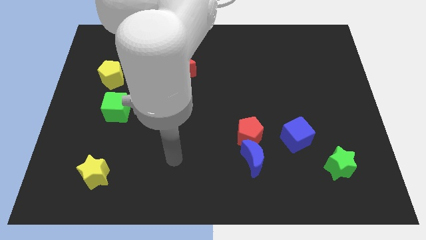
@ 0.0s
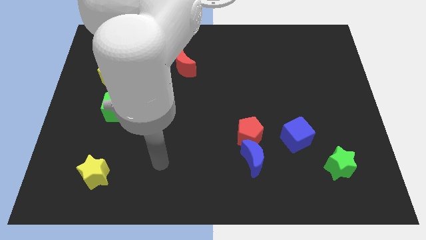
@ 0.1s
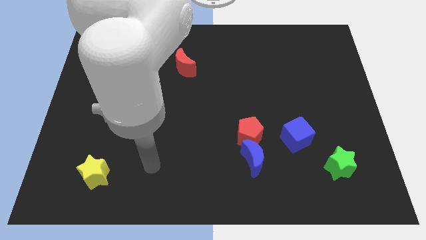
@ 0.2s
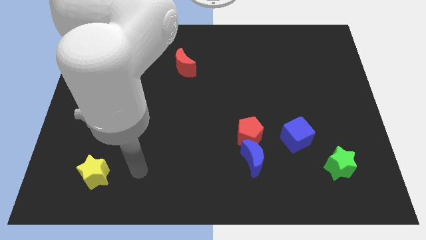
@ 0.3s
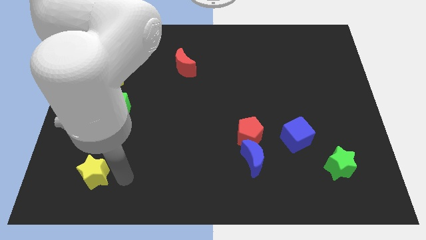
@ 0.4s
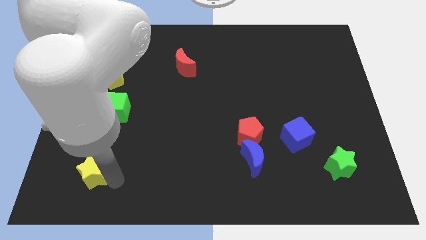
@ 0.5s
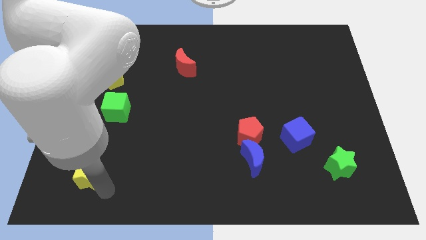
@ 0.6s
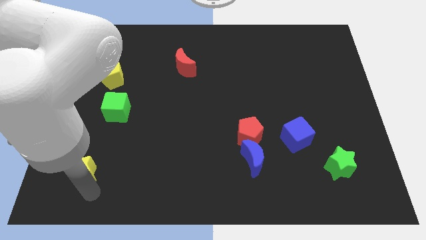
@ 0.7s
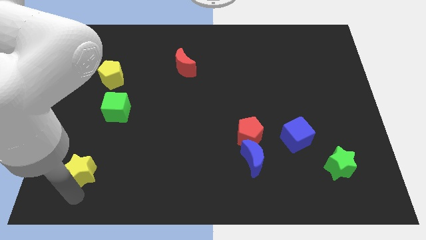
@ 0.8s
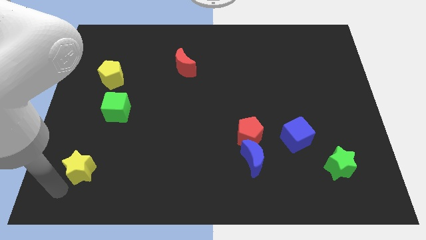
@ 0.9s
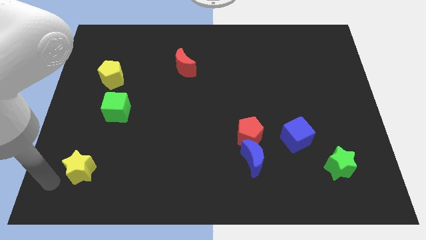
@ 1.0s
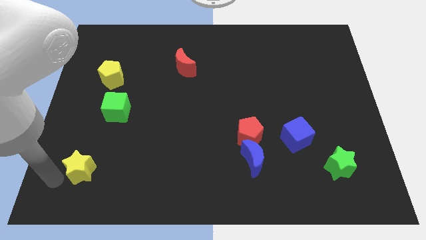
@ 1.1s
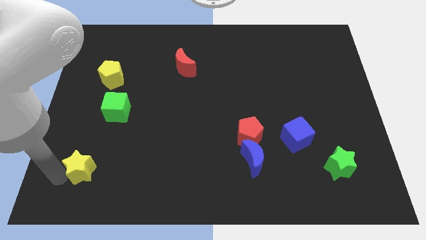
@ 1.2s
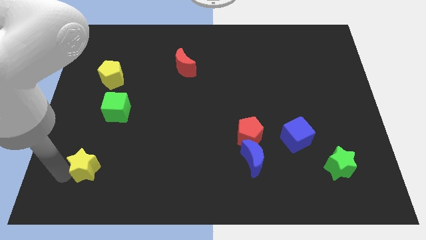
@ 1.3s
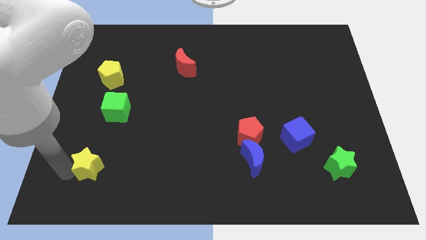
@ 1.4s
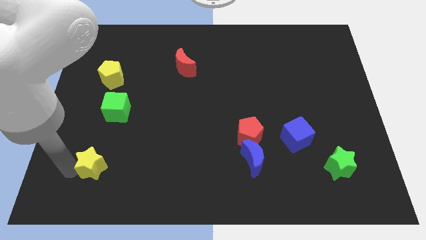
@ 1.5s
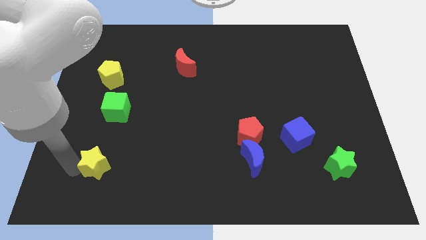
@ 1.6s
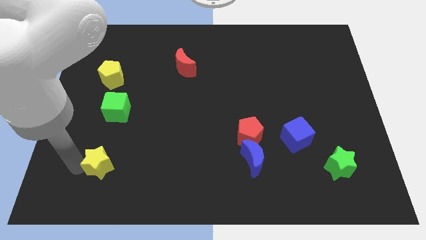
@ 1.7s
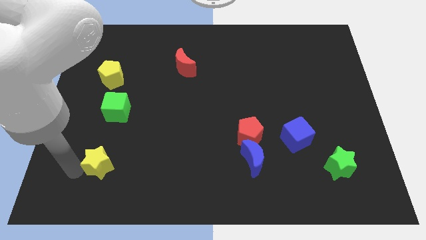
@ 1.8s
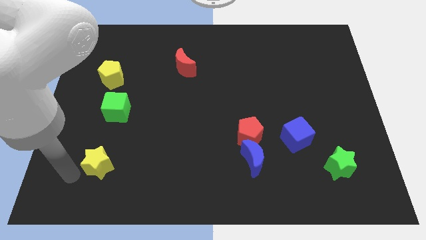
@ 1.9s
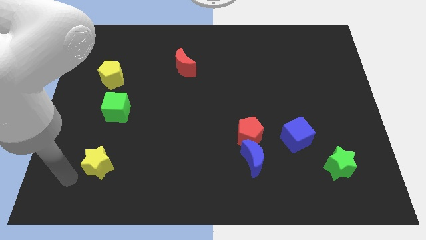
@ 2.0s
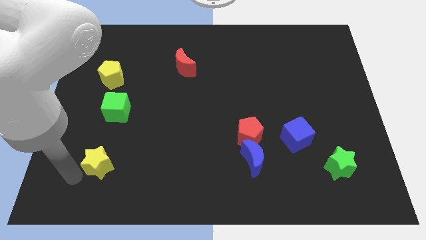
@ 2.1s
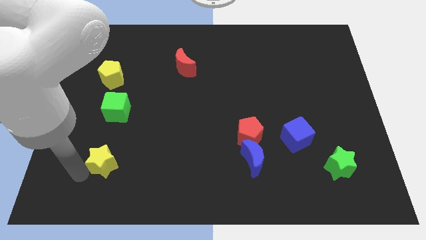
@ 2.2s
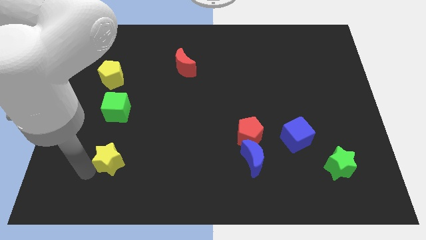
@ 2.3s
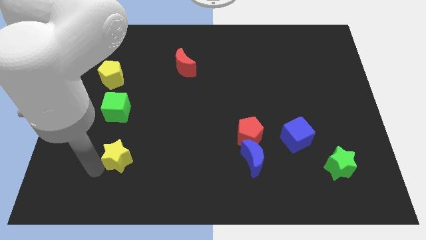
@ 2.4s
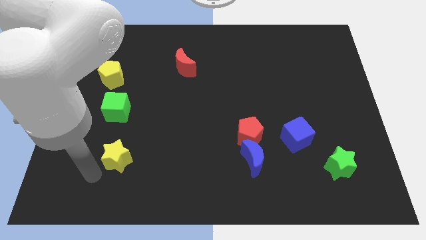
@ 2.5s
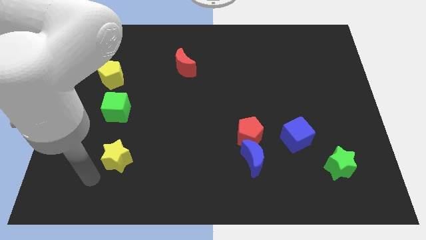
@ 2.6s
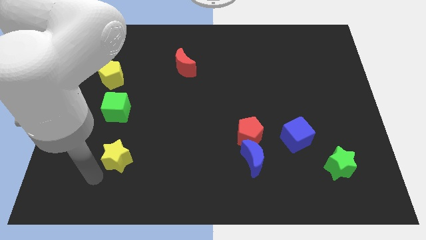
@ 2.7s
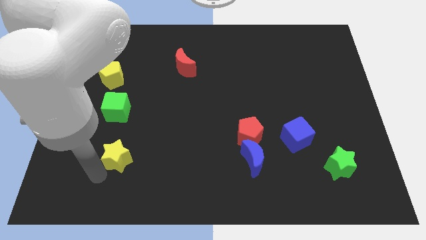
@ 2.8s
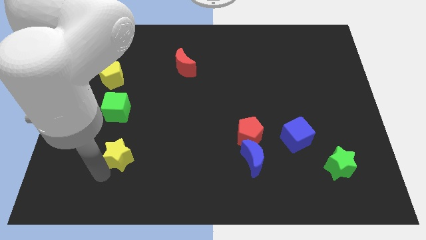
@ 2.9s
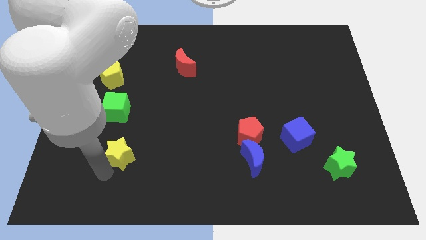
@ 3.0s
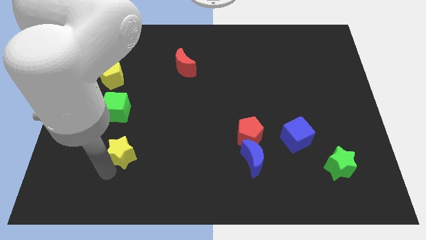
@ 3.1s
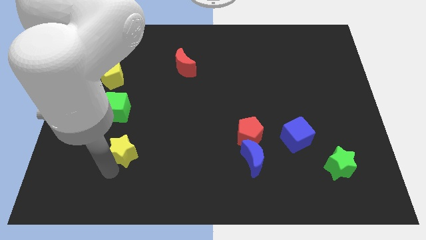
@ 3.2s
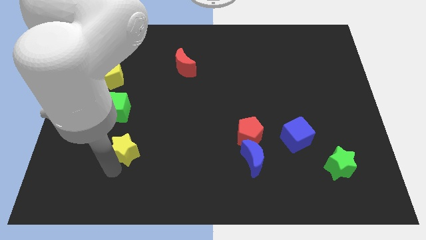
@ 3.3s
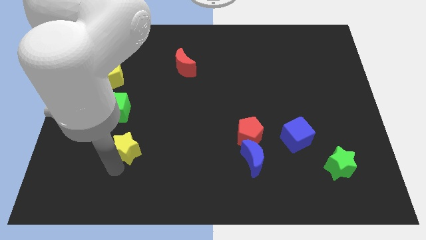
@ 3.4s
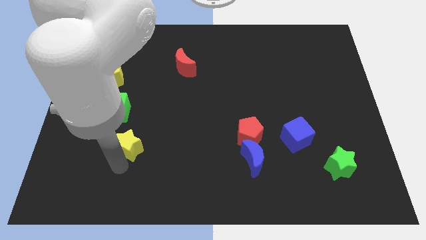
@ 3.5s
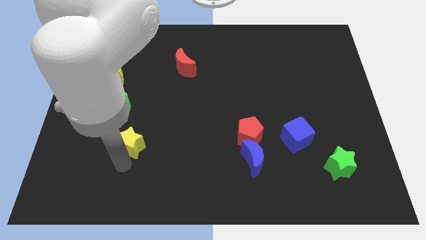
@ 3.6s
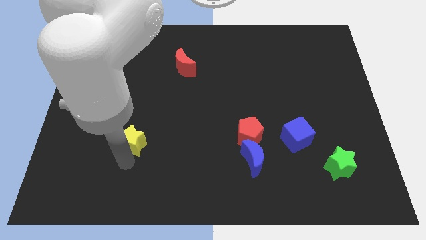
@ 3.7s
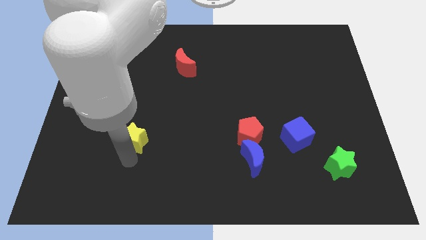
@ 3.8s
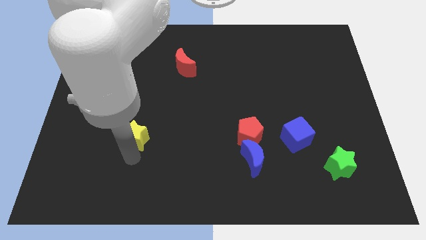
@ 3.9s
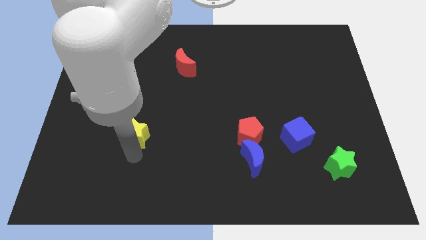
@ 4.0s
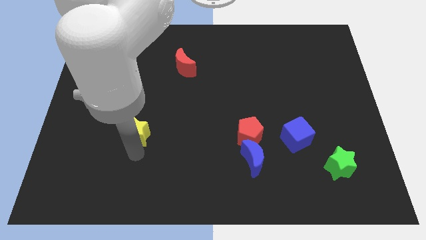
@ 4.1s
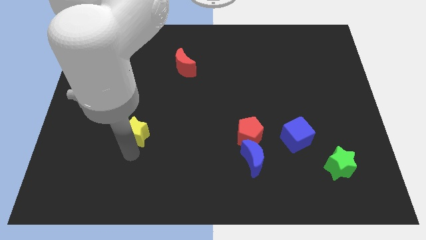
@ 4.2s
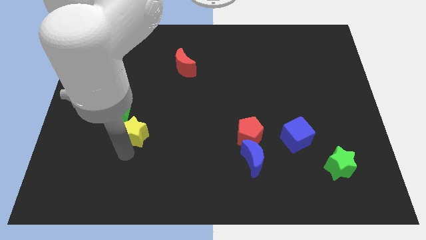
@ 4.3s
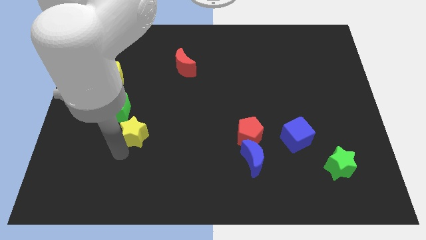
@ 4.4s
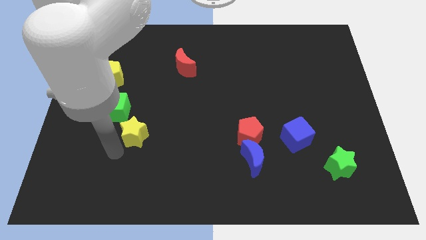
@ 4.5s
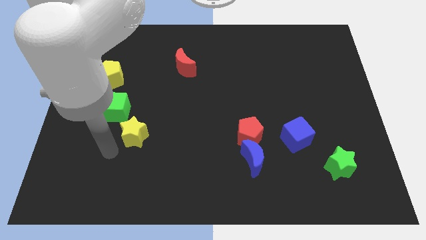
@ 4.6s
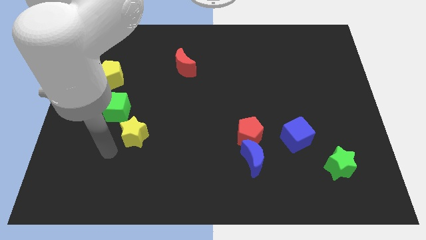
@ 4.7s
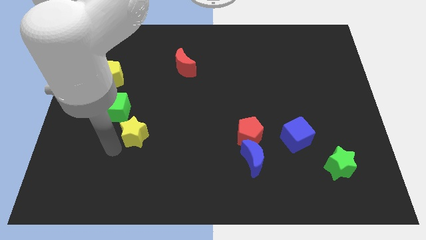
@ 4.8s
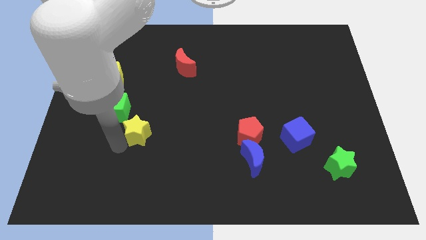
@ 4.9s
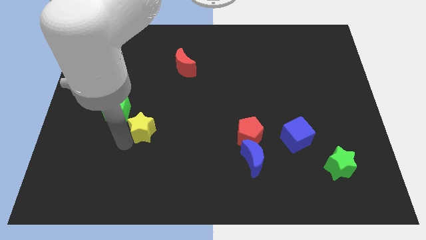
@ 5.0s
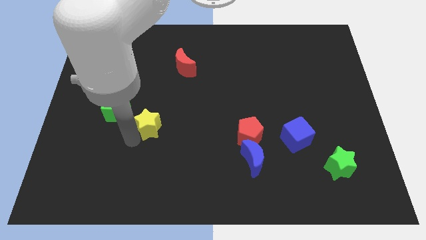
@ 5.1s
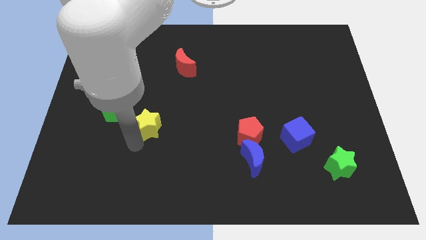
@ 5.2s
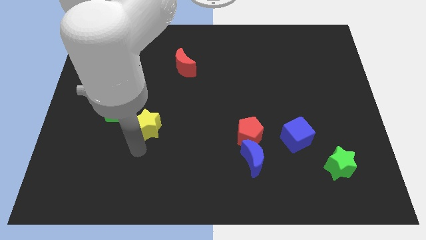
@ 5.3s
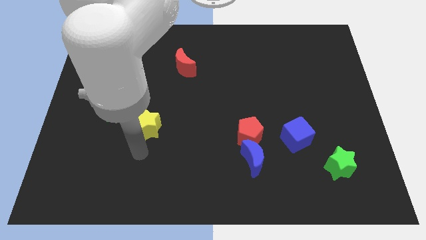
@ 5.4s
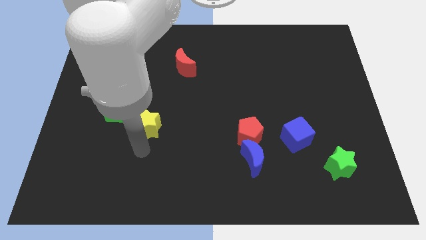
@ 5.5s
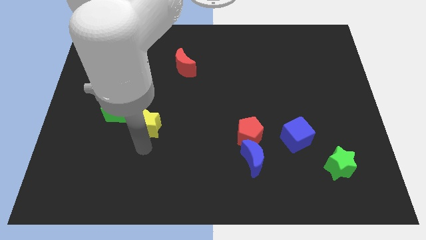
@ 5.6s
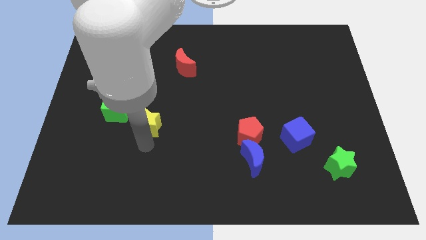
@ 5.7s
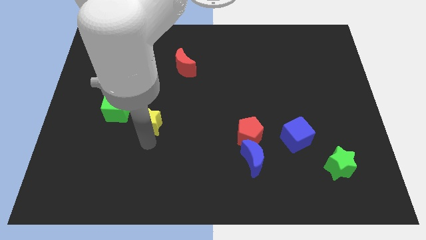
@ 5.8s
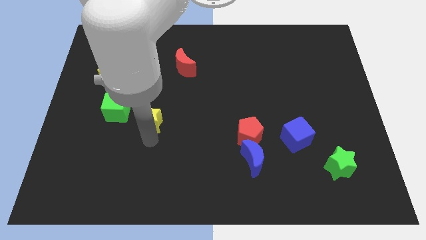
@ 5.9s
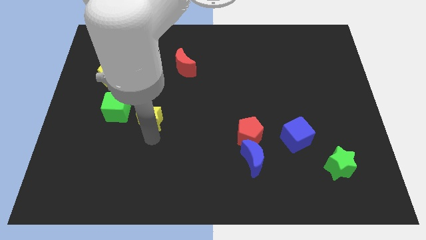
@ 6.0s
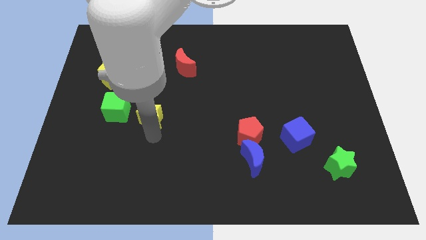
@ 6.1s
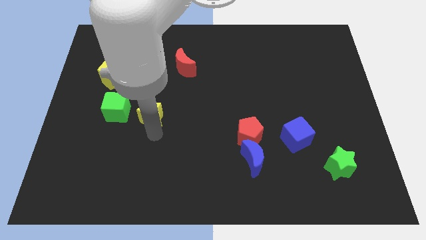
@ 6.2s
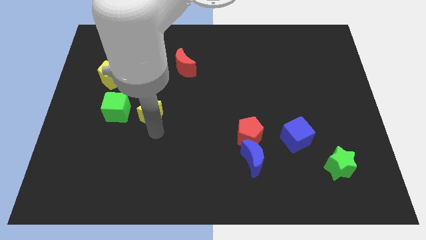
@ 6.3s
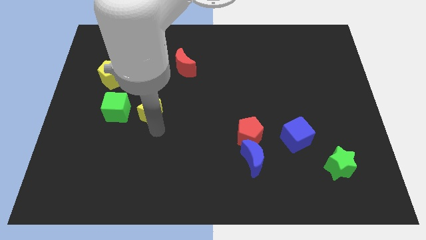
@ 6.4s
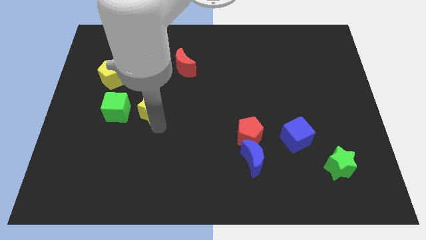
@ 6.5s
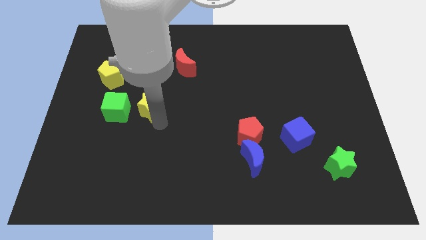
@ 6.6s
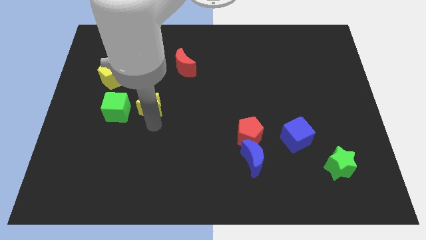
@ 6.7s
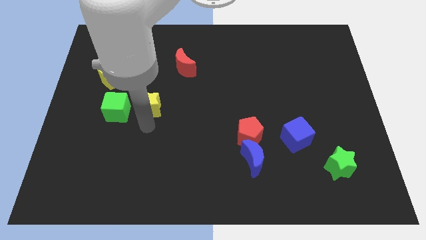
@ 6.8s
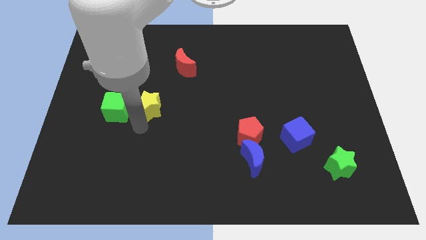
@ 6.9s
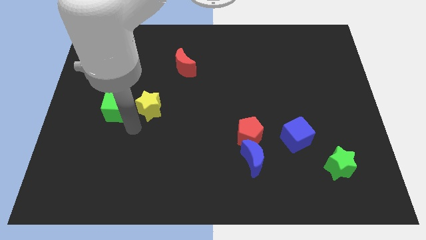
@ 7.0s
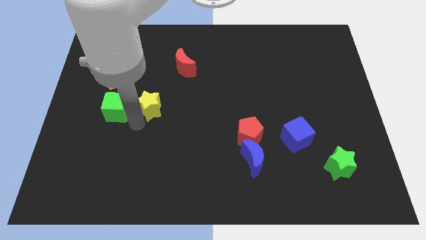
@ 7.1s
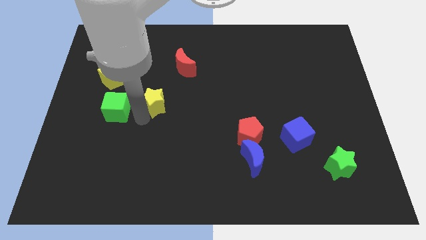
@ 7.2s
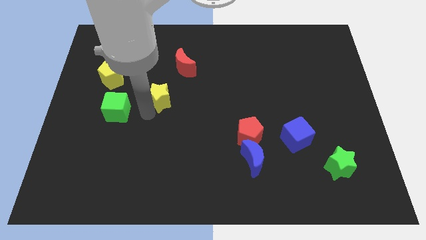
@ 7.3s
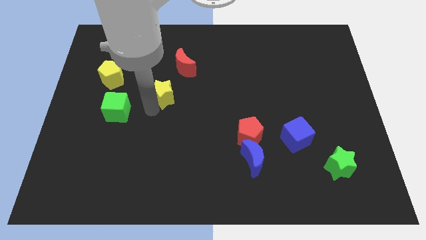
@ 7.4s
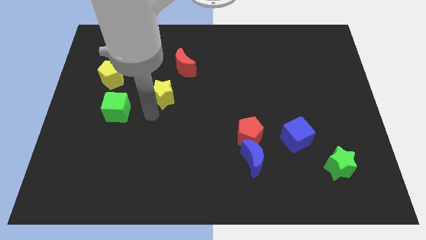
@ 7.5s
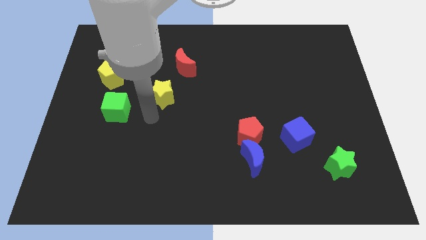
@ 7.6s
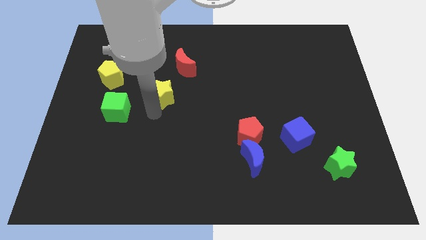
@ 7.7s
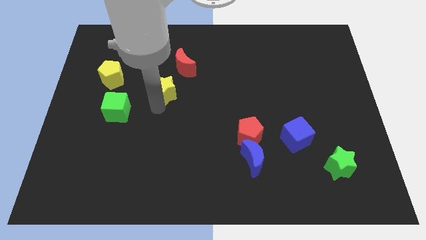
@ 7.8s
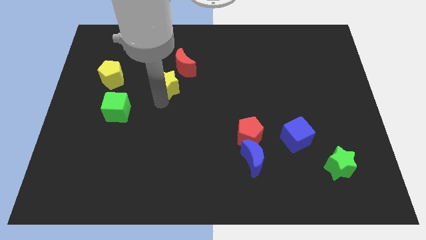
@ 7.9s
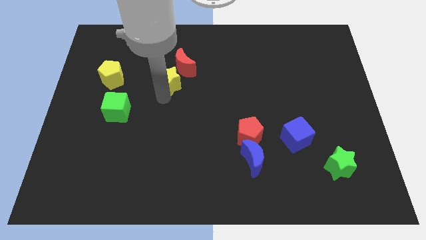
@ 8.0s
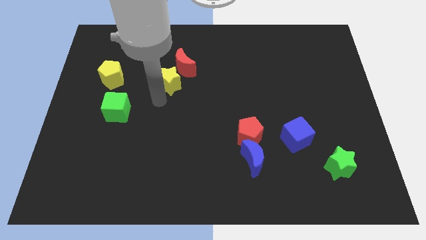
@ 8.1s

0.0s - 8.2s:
move the yellow star close to the red moon
